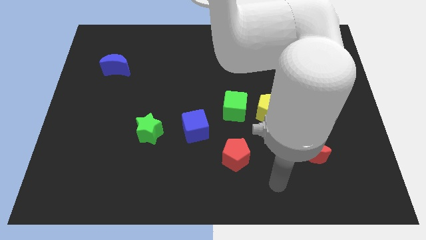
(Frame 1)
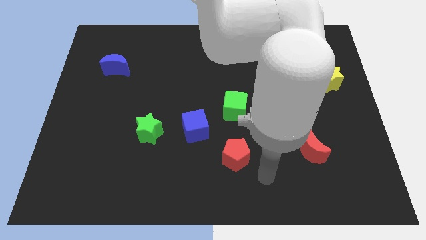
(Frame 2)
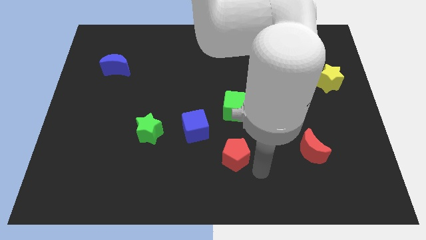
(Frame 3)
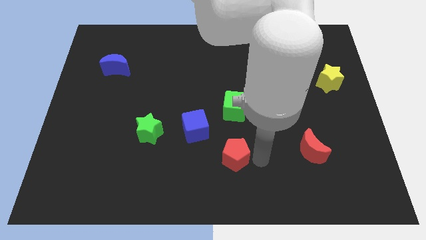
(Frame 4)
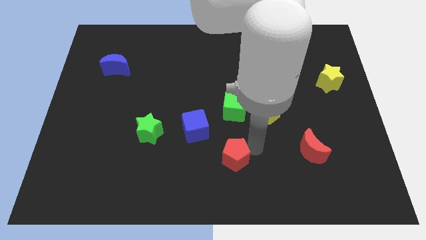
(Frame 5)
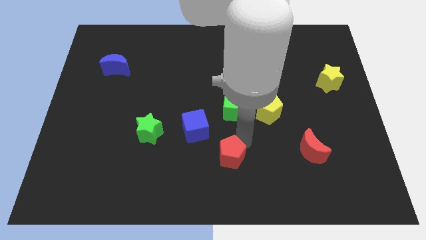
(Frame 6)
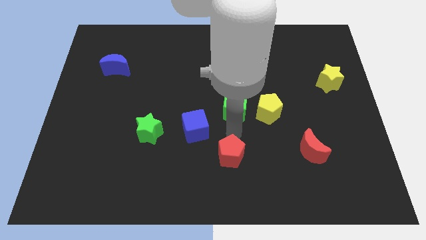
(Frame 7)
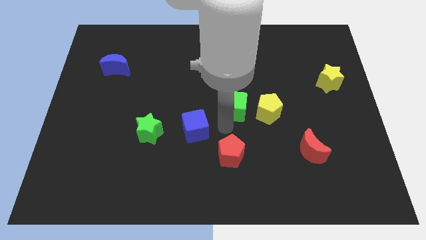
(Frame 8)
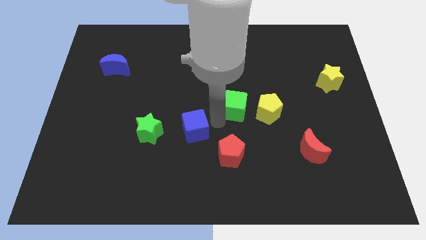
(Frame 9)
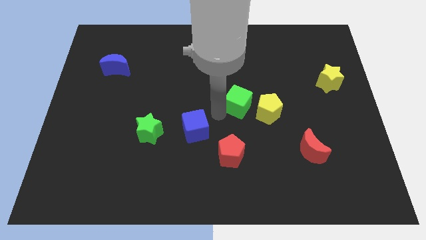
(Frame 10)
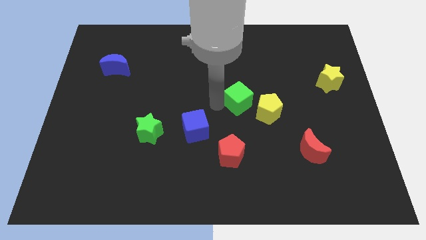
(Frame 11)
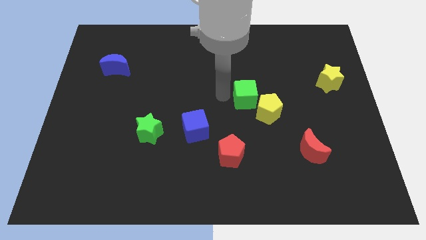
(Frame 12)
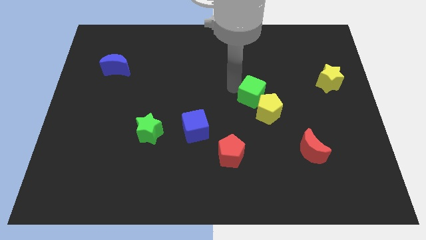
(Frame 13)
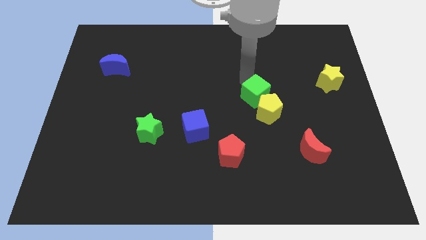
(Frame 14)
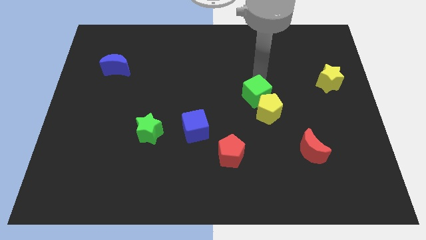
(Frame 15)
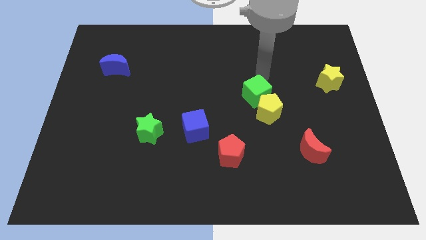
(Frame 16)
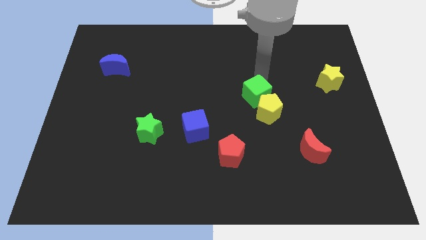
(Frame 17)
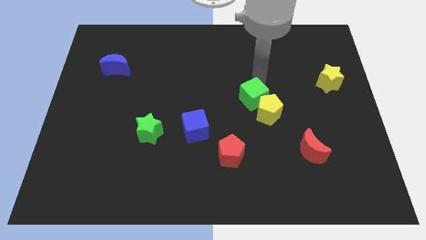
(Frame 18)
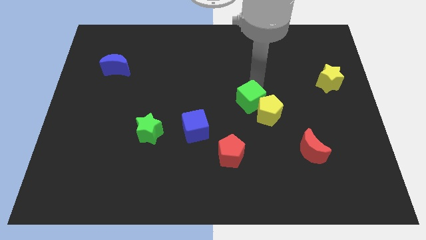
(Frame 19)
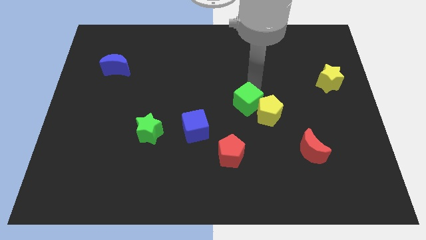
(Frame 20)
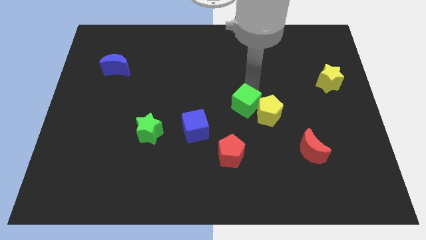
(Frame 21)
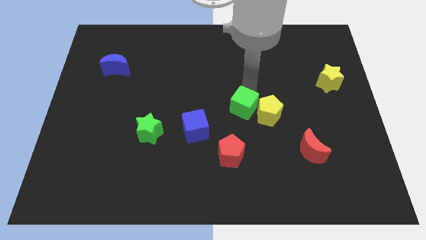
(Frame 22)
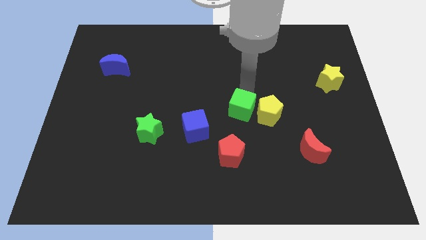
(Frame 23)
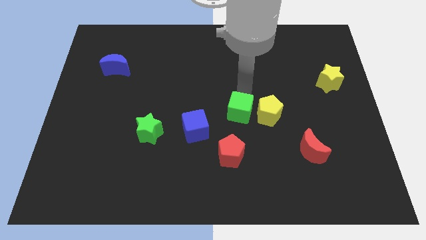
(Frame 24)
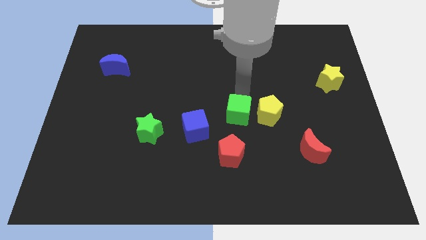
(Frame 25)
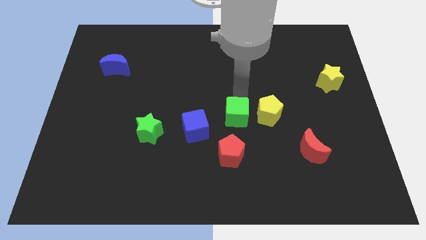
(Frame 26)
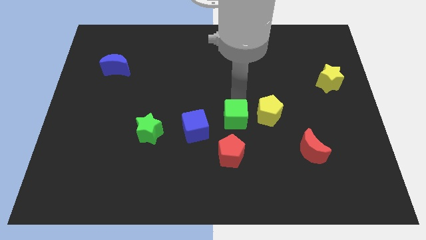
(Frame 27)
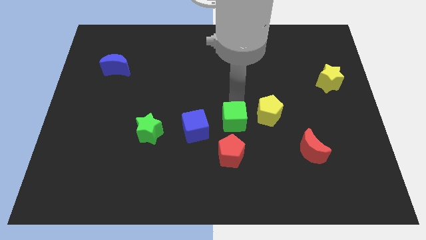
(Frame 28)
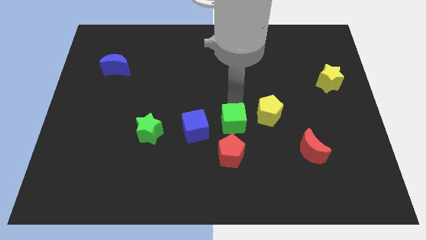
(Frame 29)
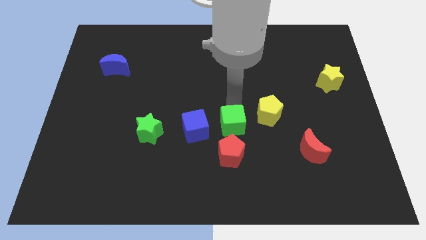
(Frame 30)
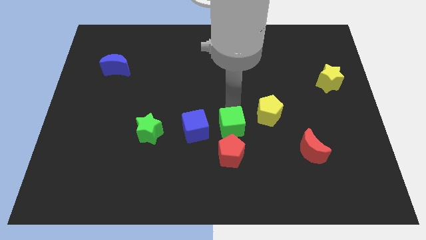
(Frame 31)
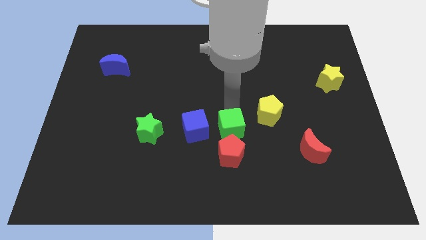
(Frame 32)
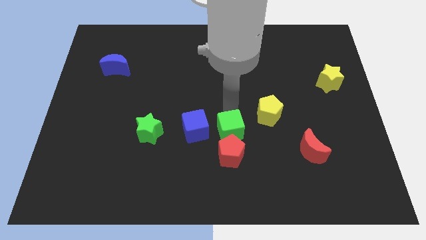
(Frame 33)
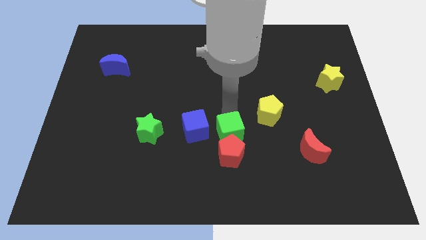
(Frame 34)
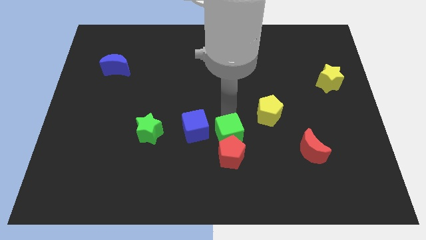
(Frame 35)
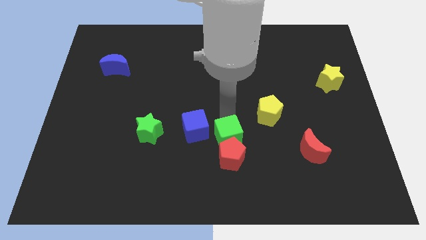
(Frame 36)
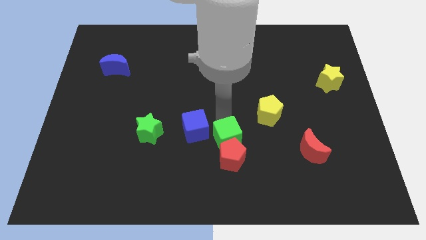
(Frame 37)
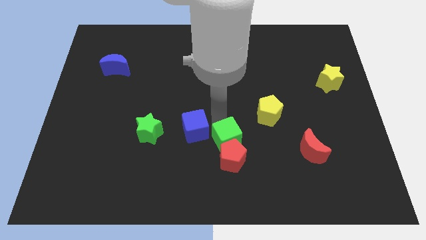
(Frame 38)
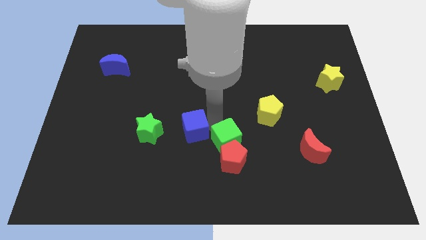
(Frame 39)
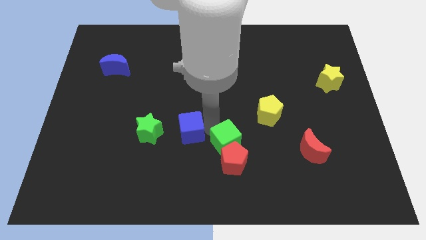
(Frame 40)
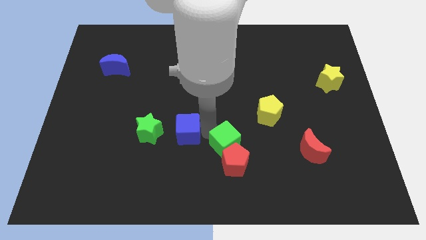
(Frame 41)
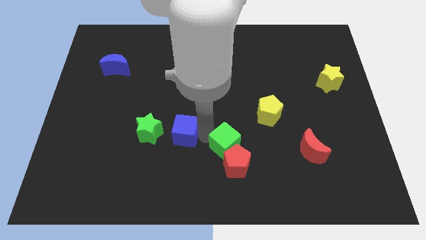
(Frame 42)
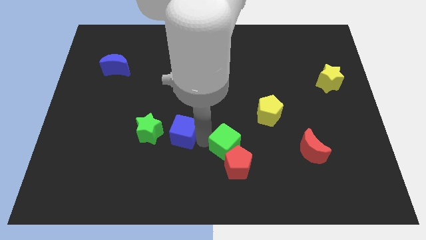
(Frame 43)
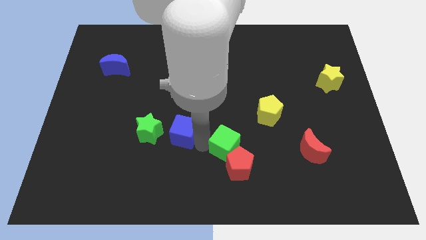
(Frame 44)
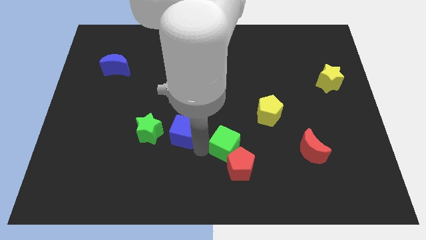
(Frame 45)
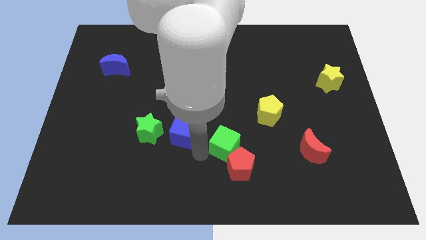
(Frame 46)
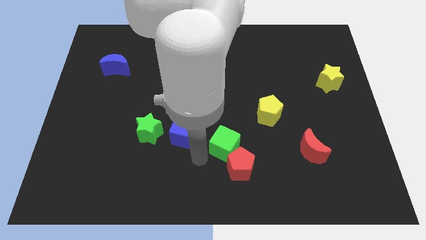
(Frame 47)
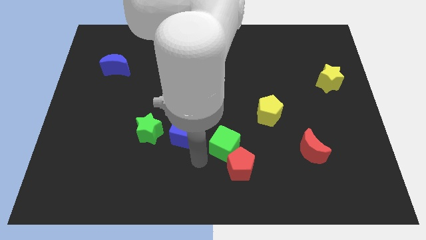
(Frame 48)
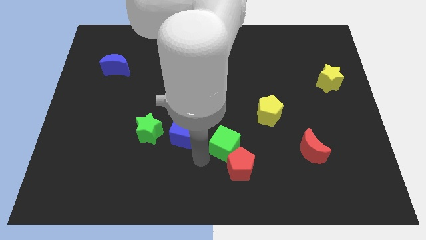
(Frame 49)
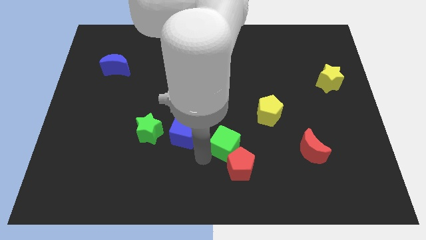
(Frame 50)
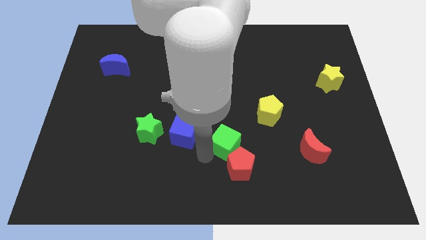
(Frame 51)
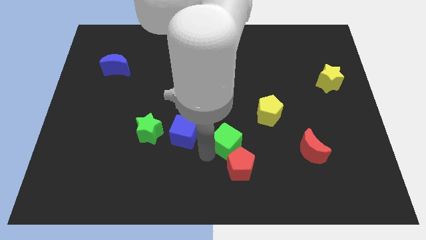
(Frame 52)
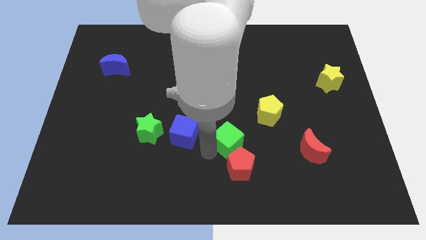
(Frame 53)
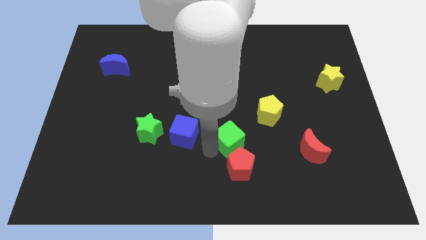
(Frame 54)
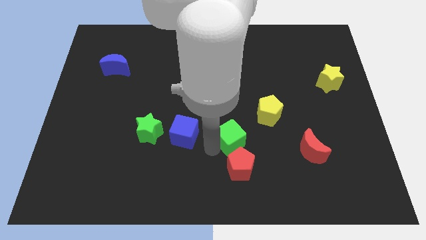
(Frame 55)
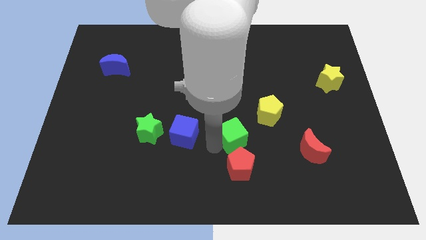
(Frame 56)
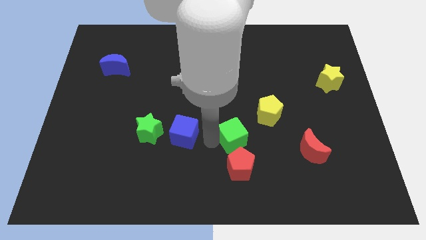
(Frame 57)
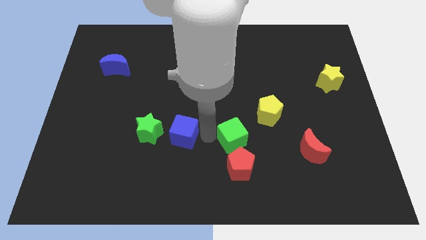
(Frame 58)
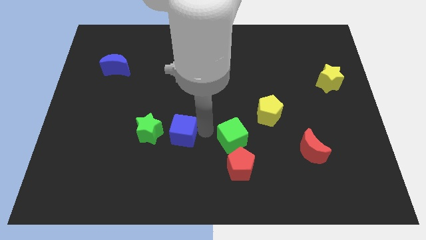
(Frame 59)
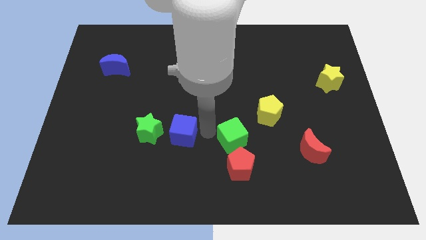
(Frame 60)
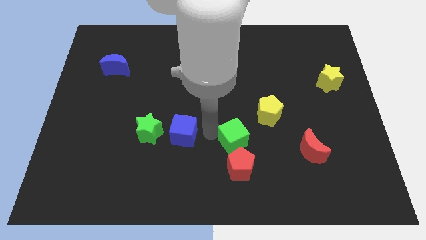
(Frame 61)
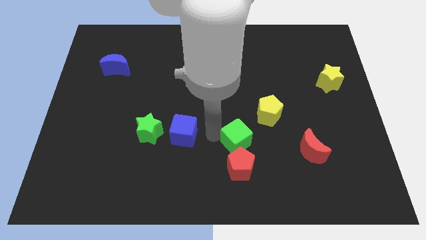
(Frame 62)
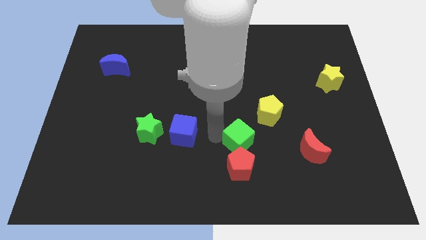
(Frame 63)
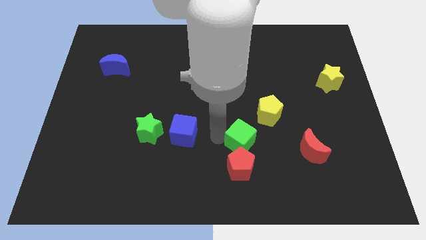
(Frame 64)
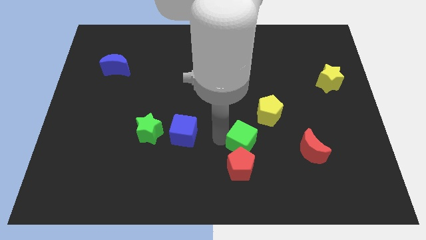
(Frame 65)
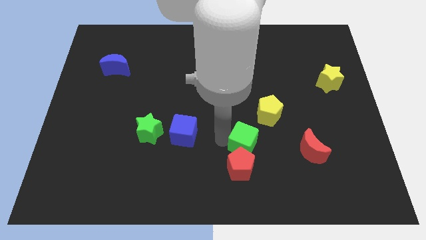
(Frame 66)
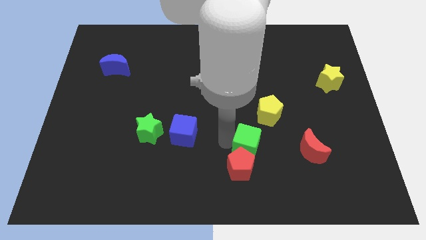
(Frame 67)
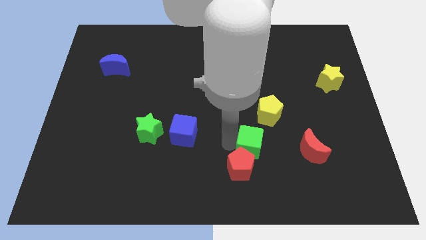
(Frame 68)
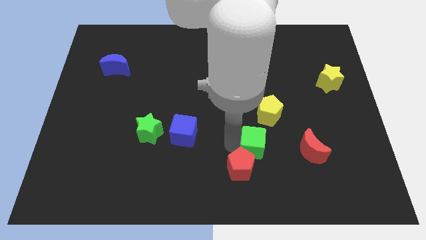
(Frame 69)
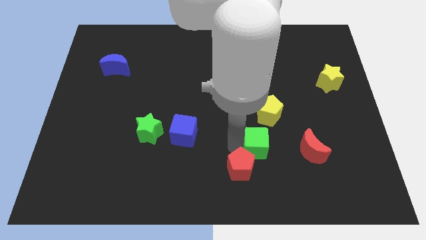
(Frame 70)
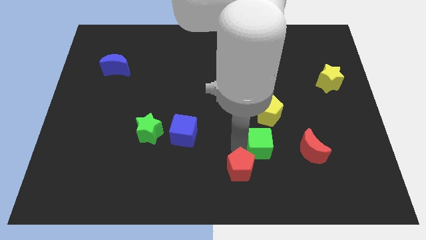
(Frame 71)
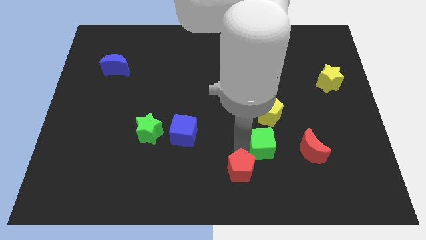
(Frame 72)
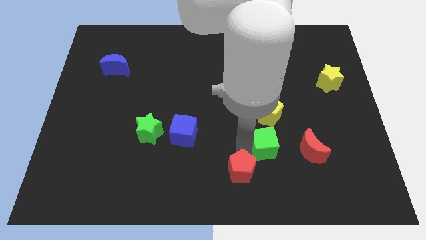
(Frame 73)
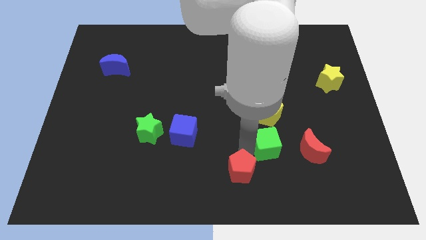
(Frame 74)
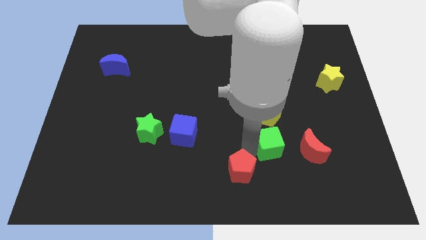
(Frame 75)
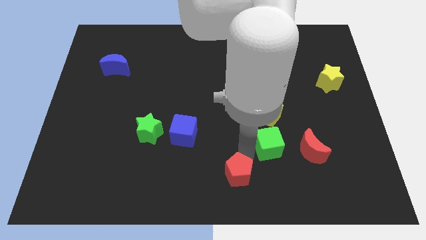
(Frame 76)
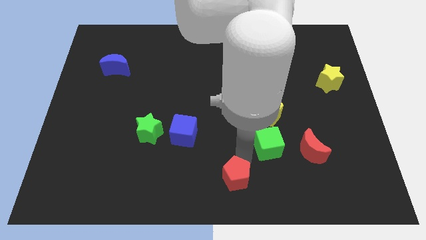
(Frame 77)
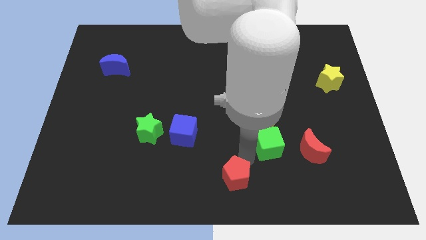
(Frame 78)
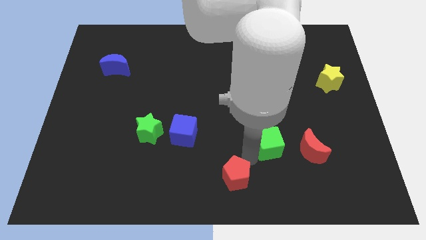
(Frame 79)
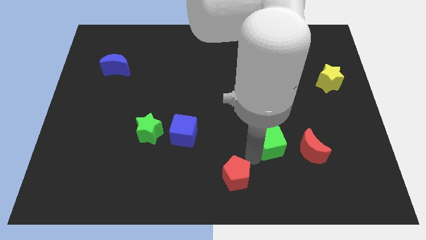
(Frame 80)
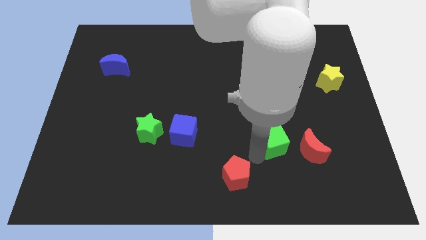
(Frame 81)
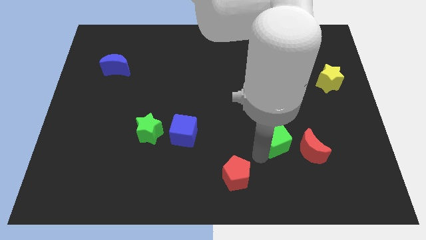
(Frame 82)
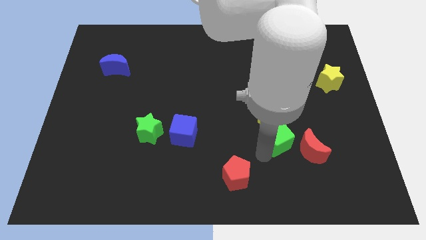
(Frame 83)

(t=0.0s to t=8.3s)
move the green cube to the bottom right of the yellow pentagon

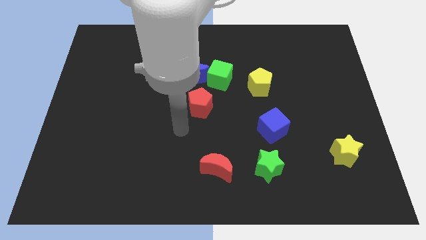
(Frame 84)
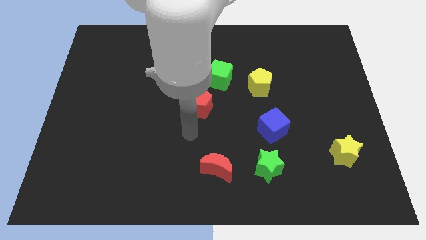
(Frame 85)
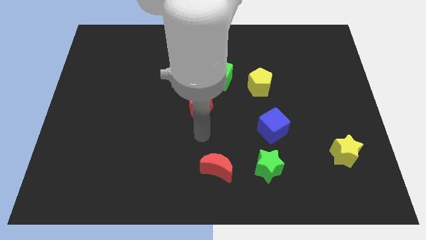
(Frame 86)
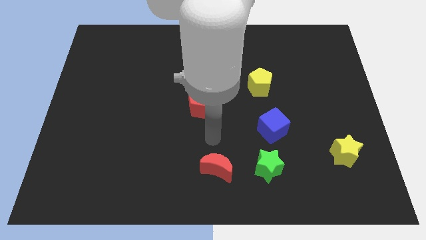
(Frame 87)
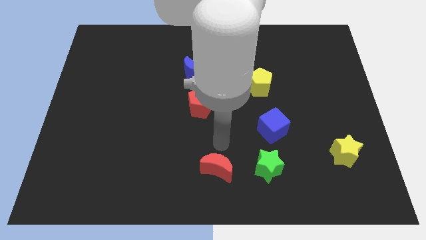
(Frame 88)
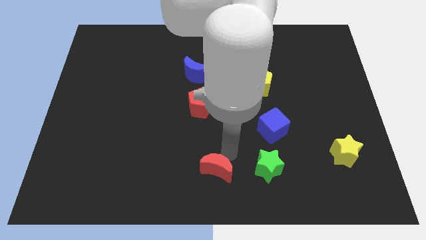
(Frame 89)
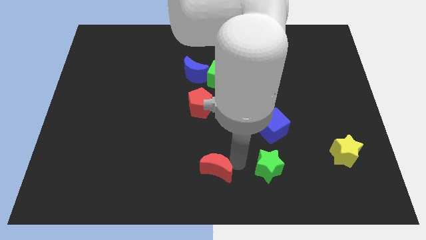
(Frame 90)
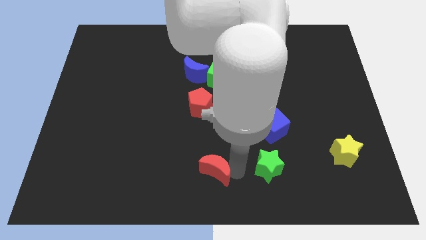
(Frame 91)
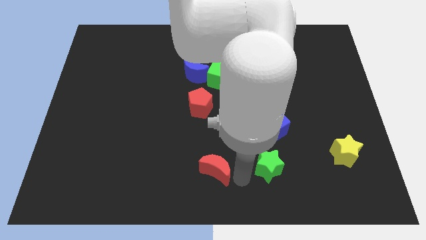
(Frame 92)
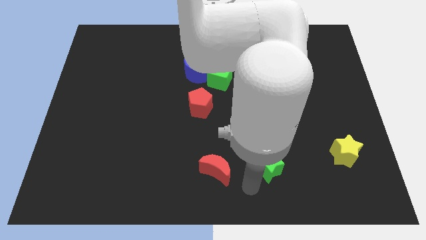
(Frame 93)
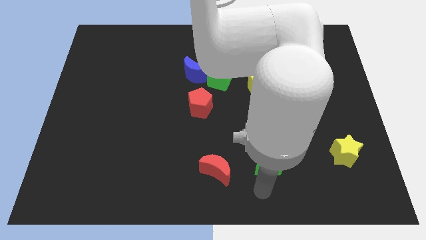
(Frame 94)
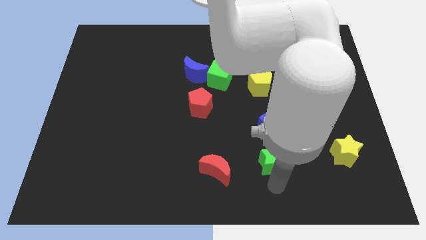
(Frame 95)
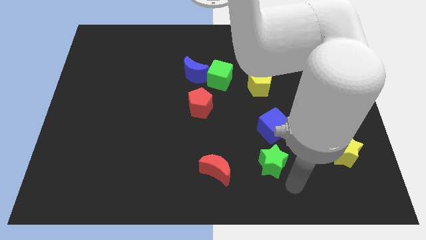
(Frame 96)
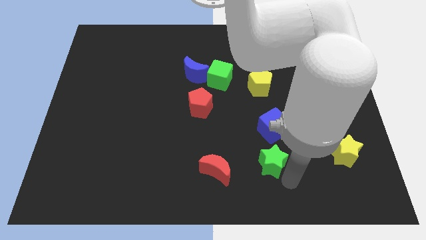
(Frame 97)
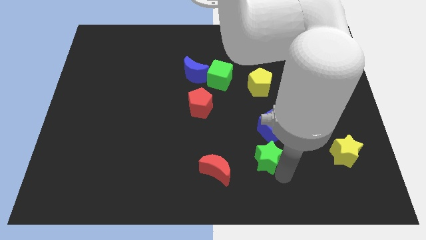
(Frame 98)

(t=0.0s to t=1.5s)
push the green star to the bottom left of the blue cube
